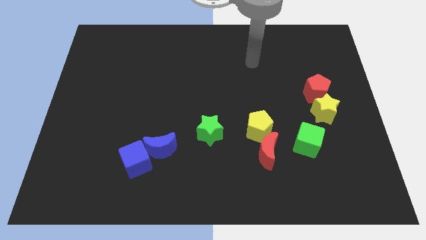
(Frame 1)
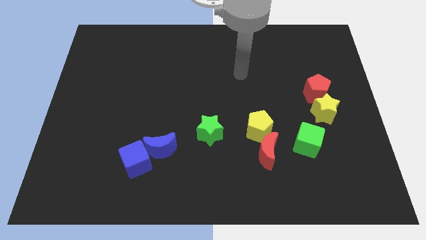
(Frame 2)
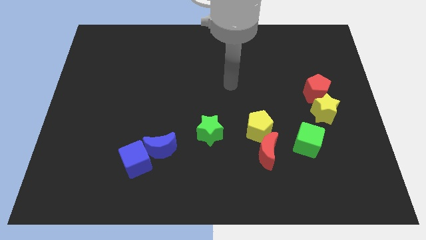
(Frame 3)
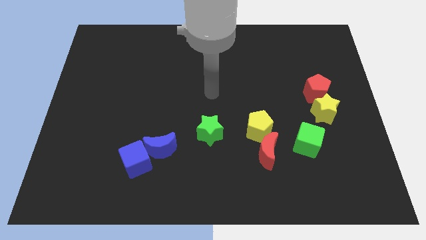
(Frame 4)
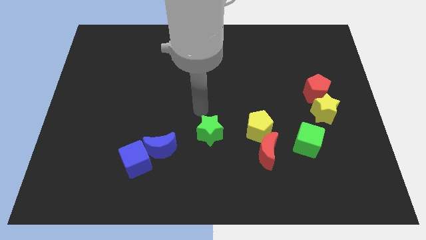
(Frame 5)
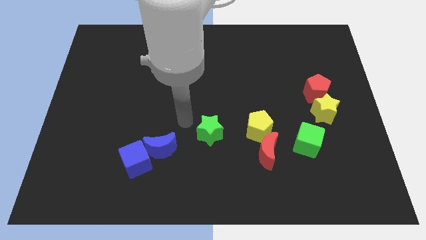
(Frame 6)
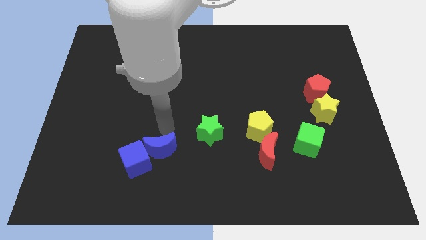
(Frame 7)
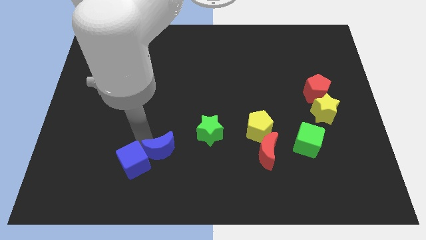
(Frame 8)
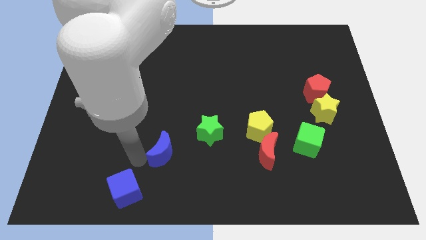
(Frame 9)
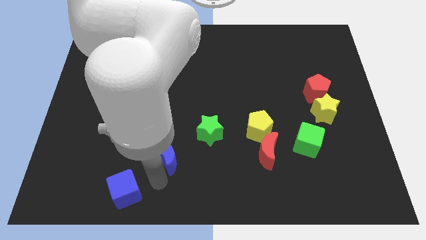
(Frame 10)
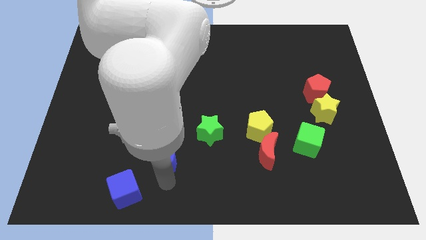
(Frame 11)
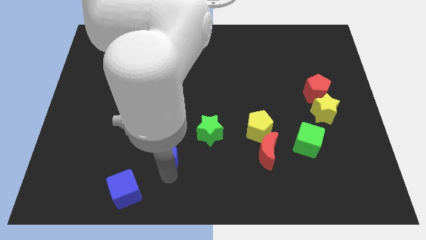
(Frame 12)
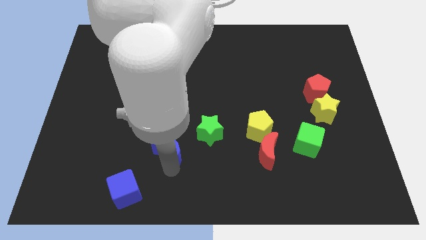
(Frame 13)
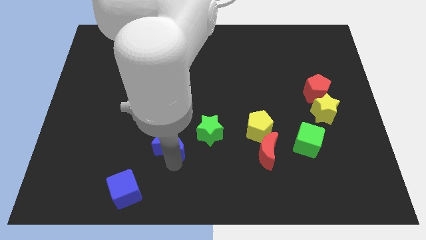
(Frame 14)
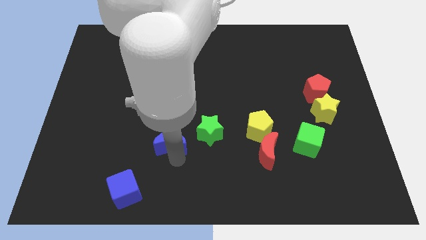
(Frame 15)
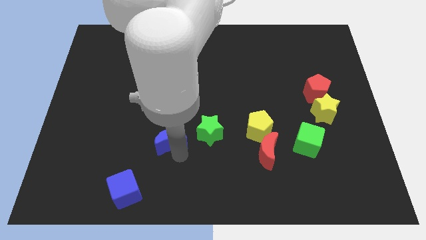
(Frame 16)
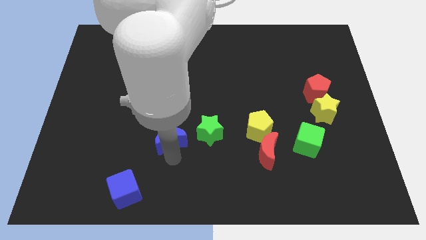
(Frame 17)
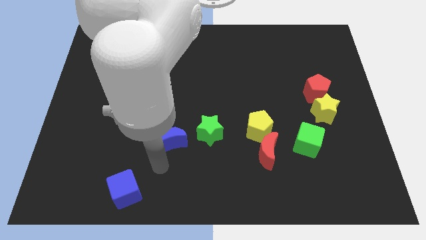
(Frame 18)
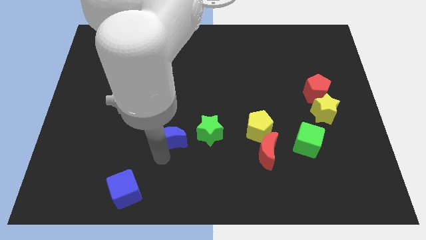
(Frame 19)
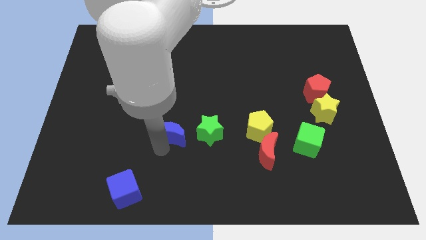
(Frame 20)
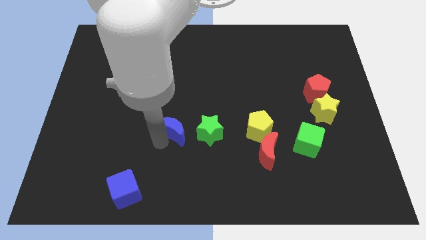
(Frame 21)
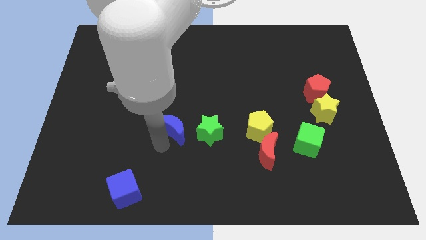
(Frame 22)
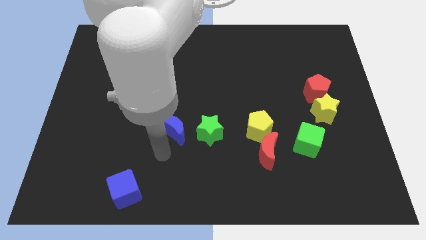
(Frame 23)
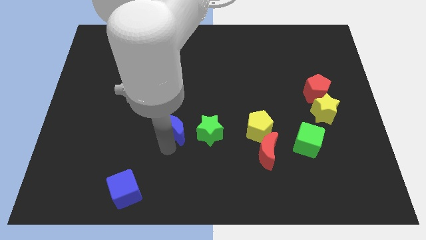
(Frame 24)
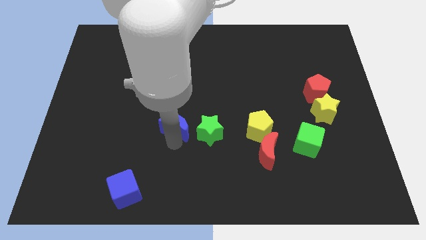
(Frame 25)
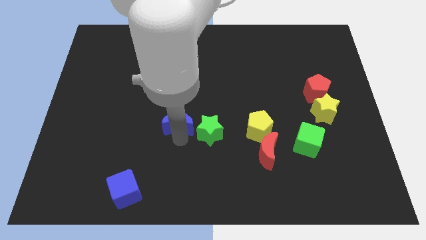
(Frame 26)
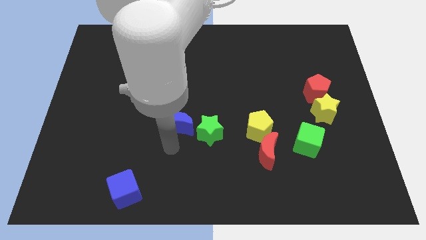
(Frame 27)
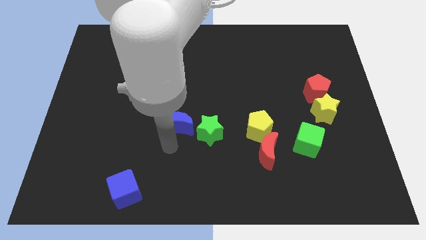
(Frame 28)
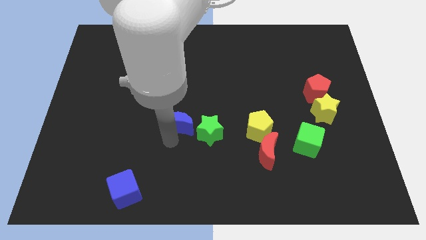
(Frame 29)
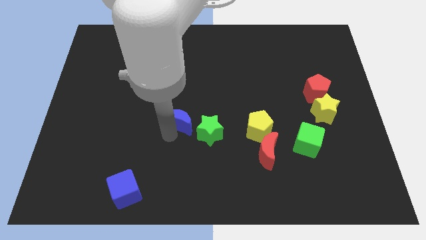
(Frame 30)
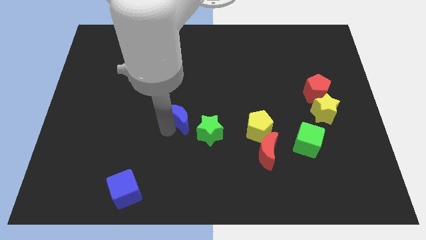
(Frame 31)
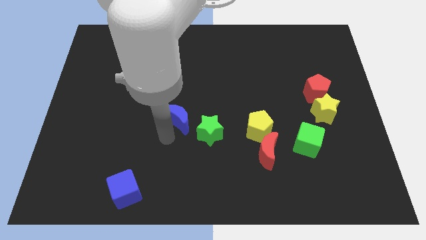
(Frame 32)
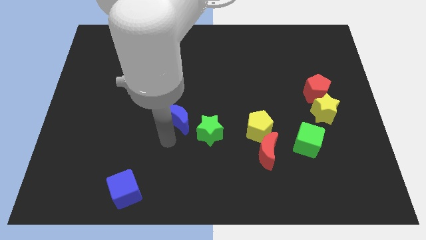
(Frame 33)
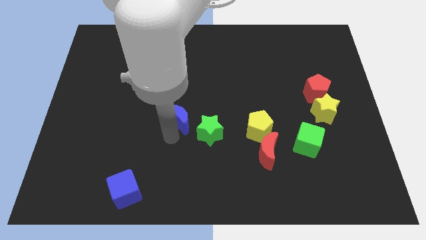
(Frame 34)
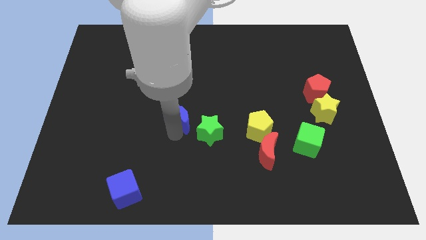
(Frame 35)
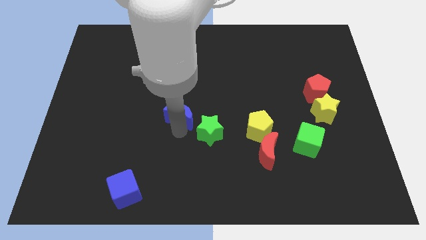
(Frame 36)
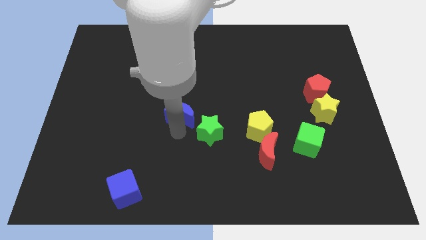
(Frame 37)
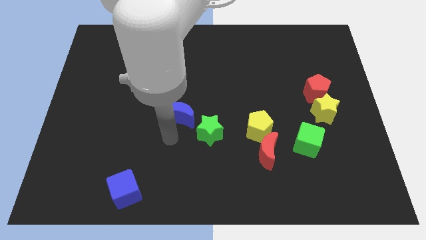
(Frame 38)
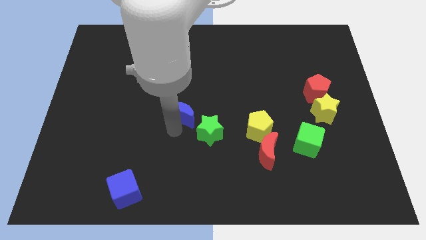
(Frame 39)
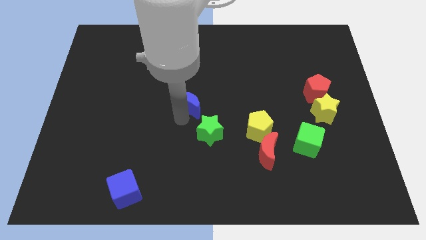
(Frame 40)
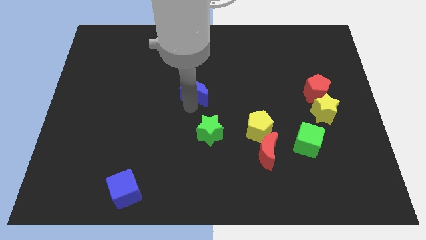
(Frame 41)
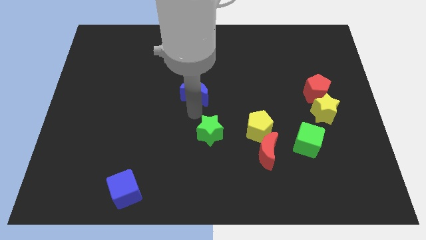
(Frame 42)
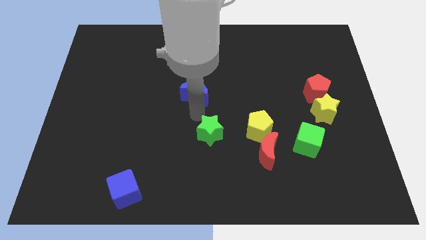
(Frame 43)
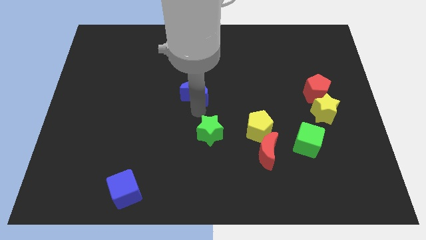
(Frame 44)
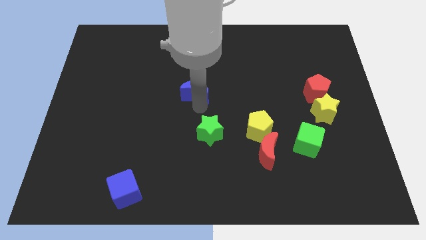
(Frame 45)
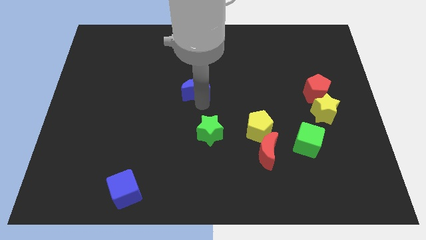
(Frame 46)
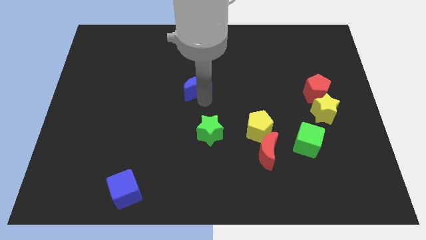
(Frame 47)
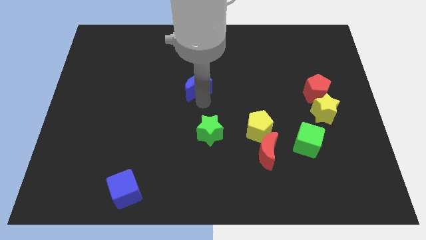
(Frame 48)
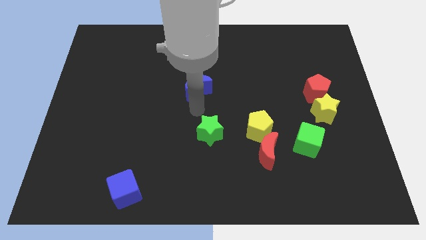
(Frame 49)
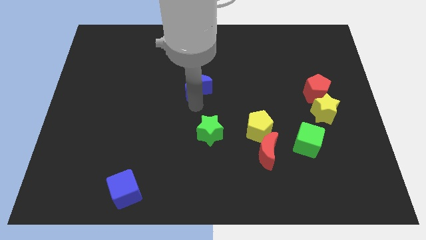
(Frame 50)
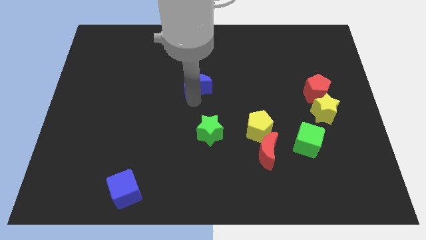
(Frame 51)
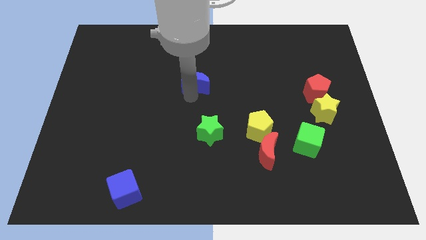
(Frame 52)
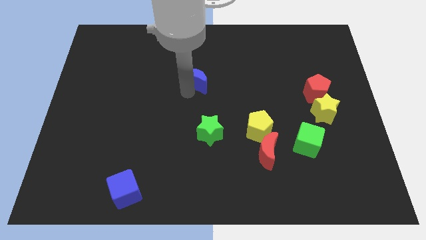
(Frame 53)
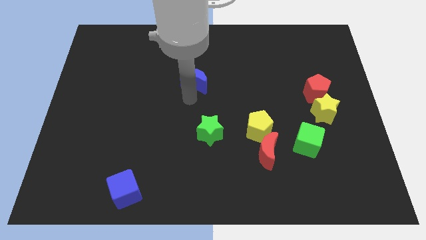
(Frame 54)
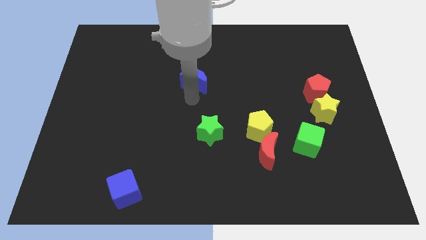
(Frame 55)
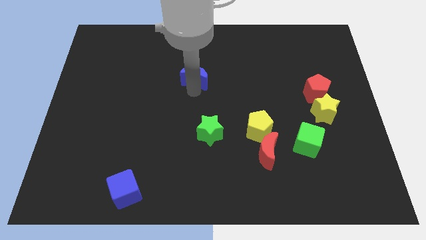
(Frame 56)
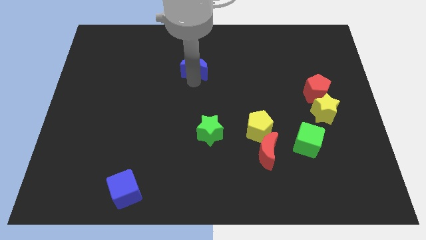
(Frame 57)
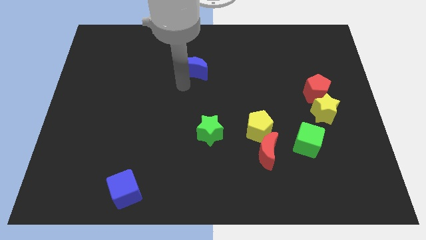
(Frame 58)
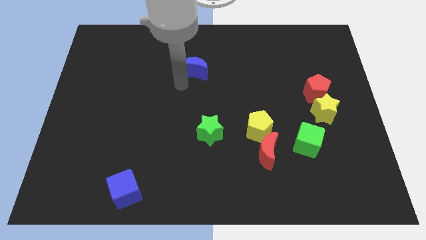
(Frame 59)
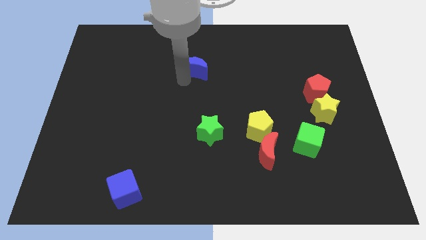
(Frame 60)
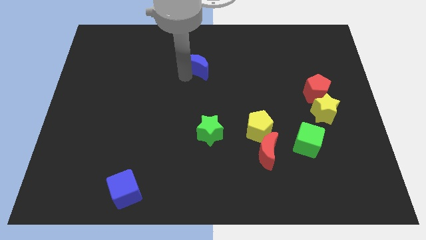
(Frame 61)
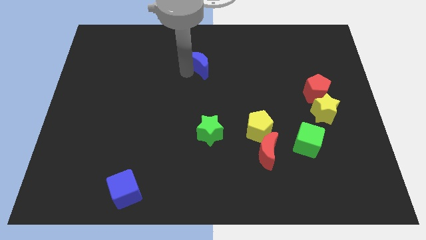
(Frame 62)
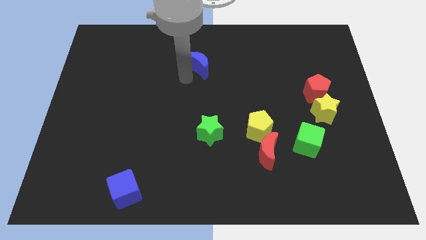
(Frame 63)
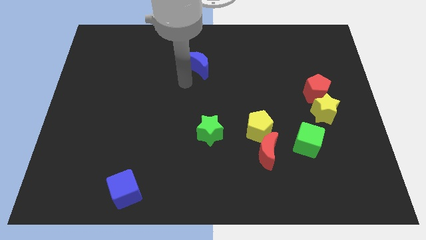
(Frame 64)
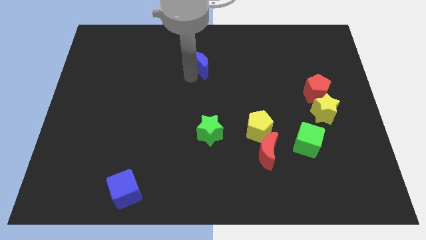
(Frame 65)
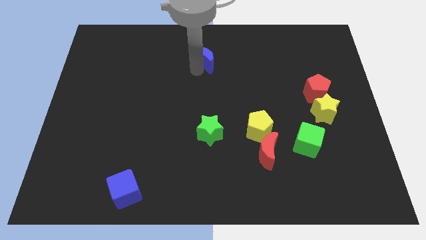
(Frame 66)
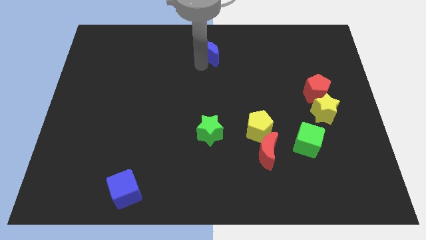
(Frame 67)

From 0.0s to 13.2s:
push the blue moon to the towards your base
